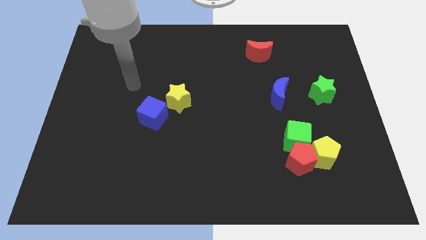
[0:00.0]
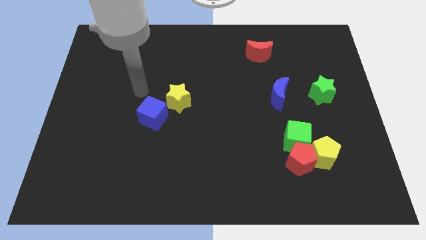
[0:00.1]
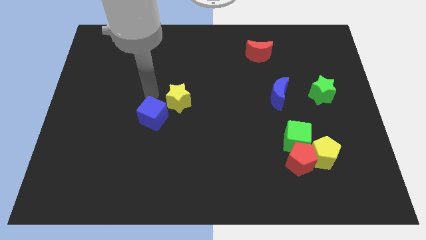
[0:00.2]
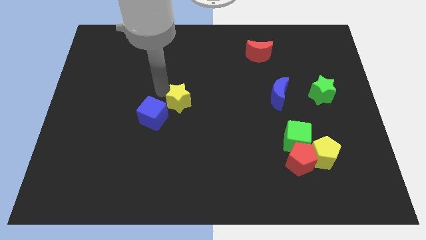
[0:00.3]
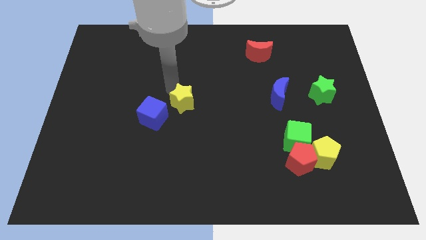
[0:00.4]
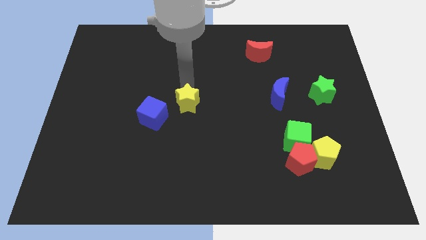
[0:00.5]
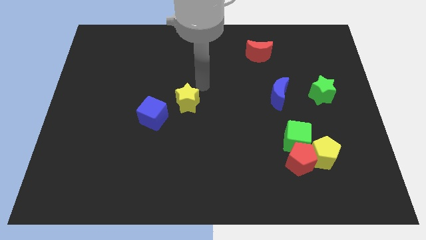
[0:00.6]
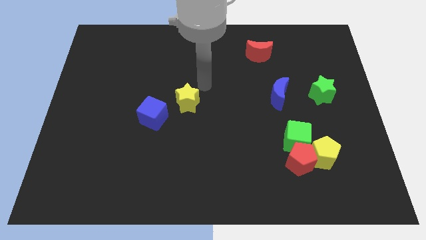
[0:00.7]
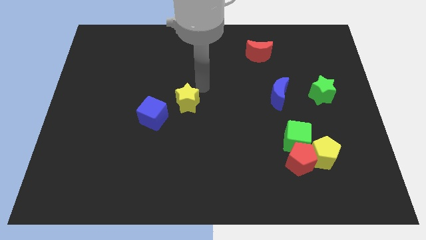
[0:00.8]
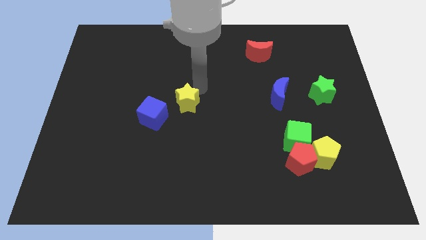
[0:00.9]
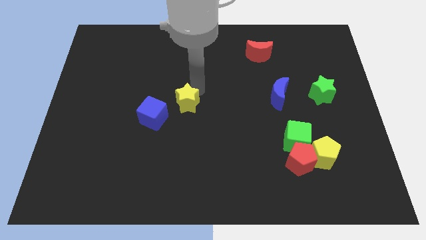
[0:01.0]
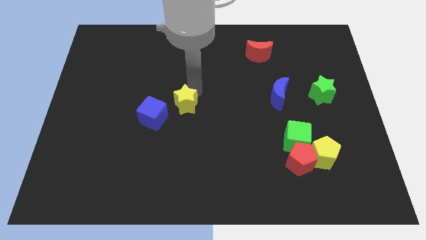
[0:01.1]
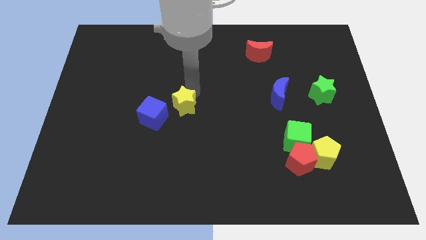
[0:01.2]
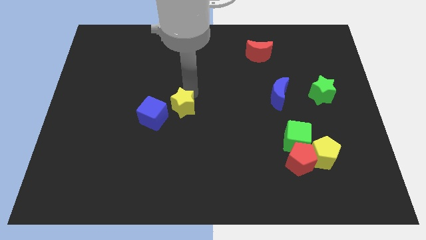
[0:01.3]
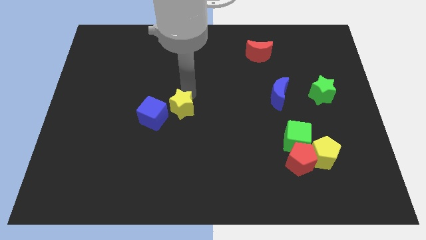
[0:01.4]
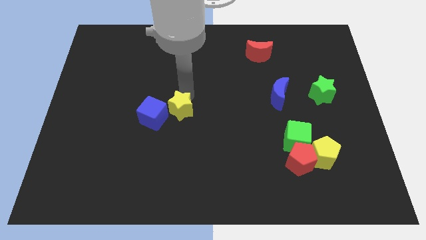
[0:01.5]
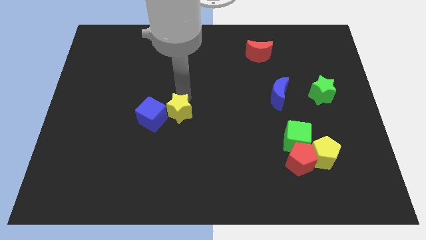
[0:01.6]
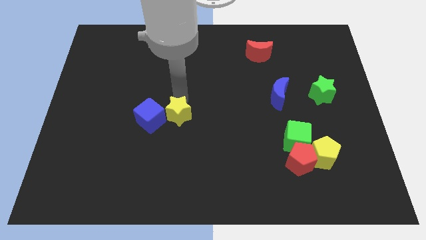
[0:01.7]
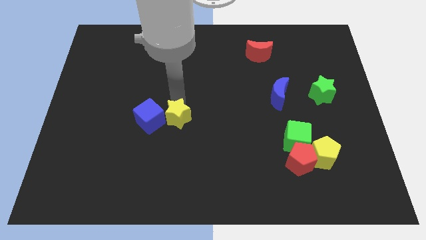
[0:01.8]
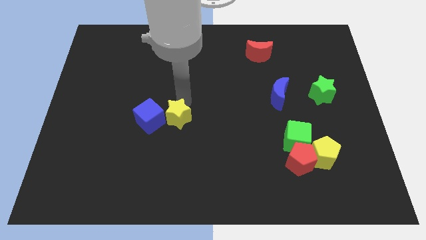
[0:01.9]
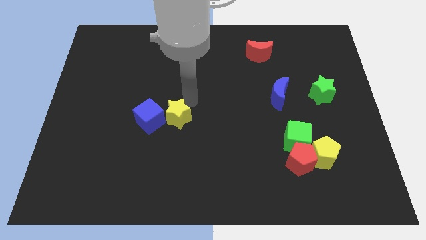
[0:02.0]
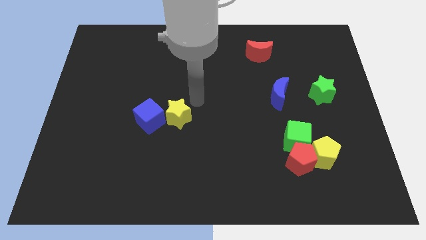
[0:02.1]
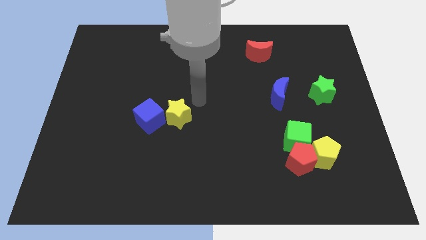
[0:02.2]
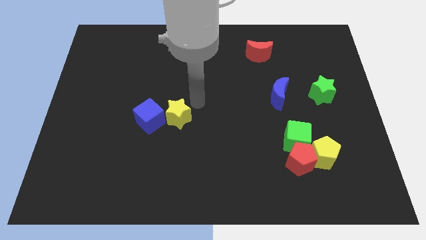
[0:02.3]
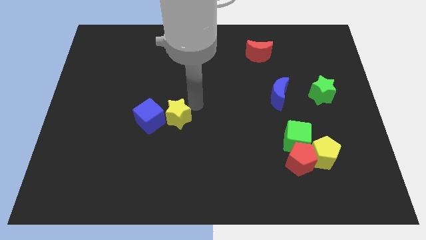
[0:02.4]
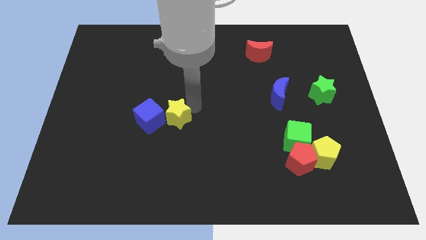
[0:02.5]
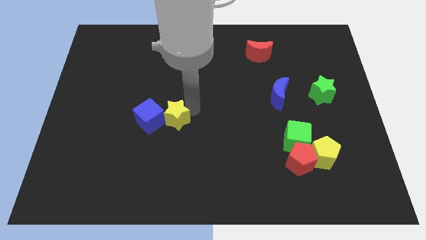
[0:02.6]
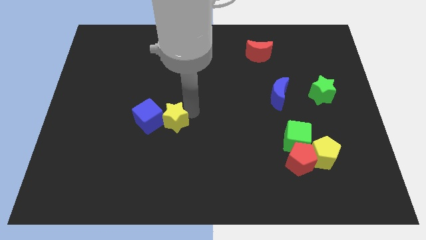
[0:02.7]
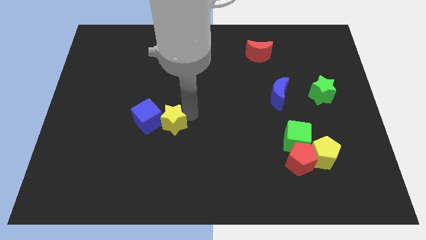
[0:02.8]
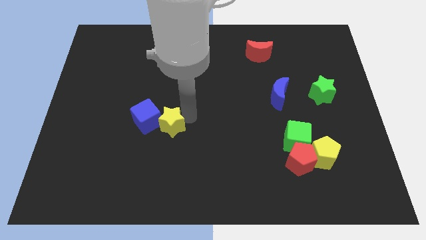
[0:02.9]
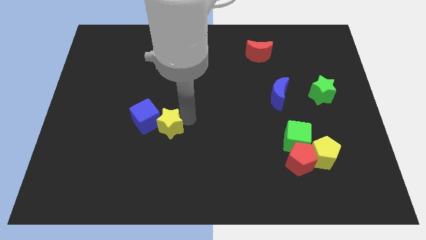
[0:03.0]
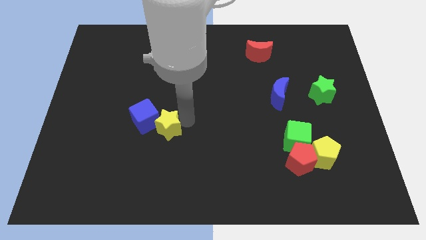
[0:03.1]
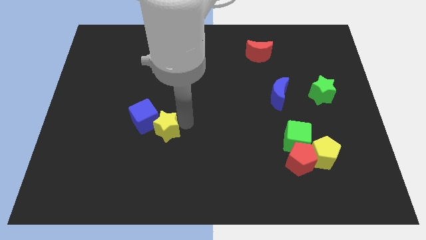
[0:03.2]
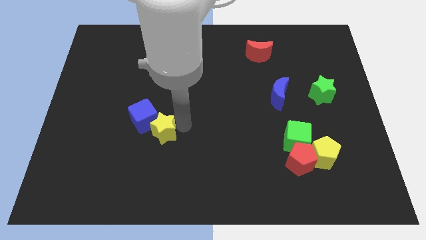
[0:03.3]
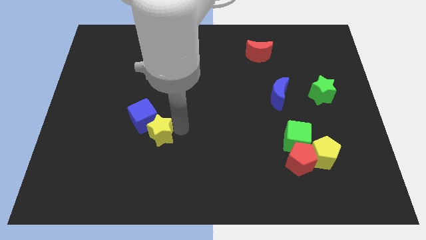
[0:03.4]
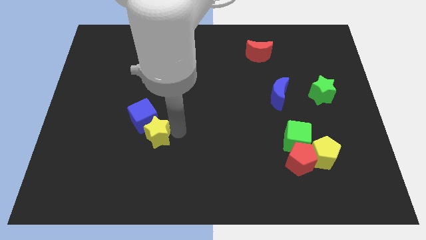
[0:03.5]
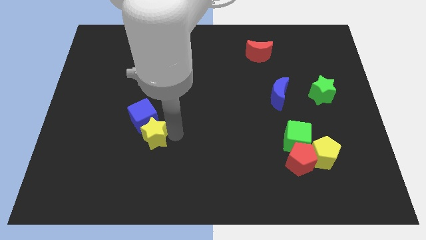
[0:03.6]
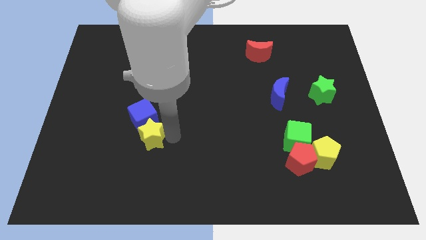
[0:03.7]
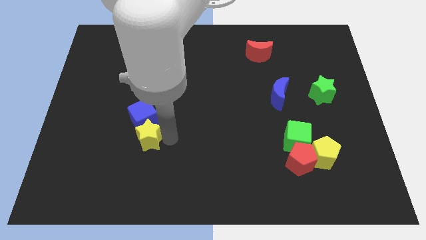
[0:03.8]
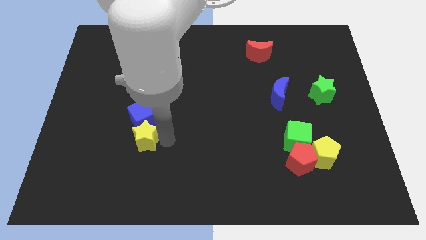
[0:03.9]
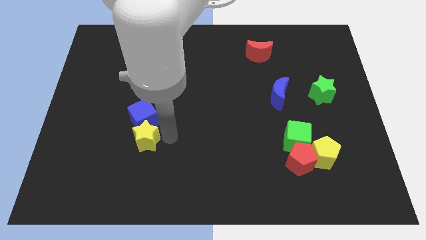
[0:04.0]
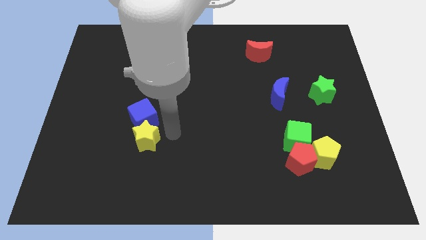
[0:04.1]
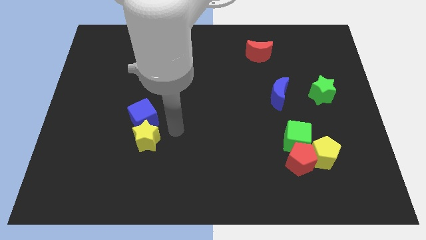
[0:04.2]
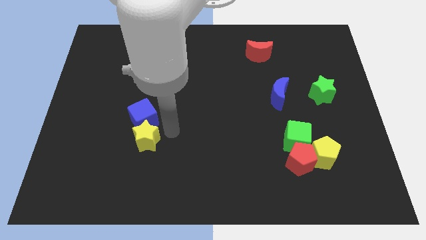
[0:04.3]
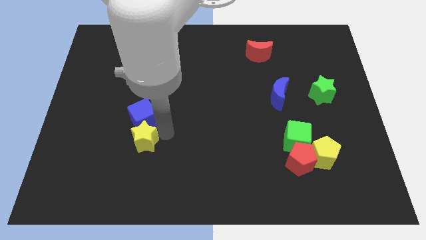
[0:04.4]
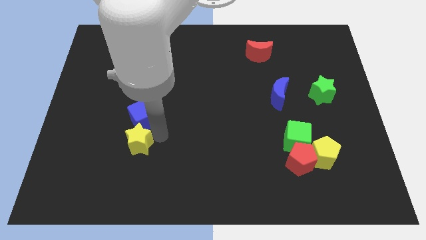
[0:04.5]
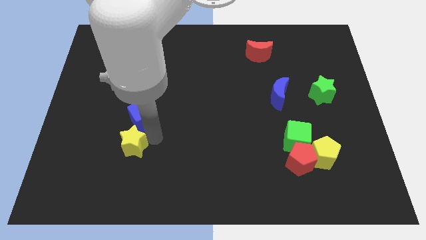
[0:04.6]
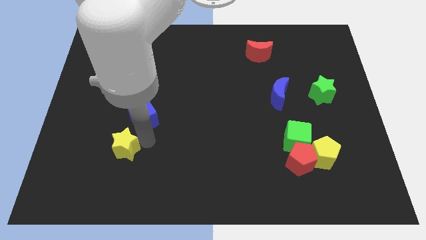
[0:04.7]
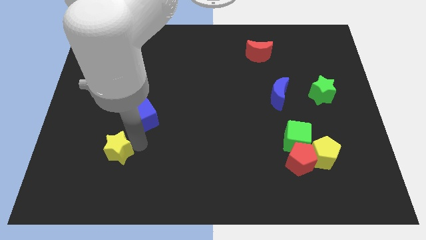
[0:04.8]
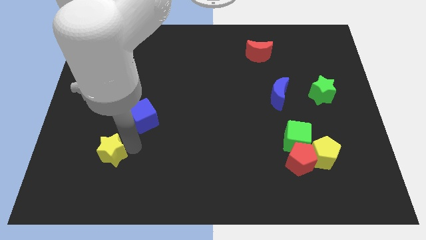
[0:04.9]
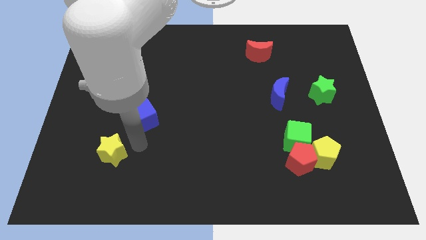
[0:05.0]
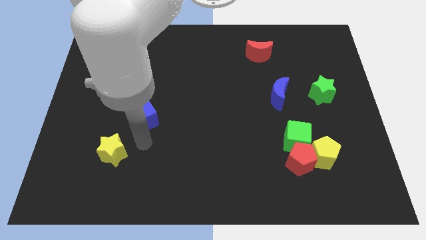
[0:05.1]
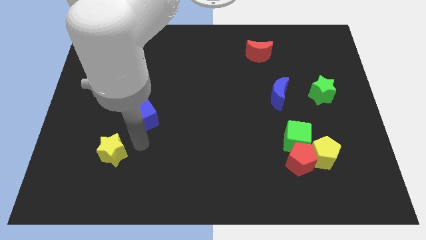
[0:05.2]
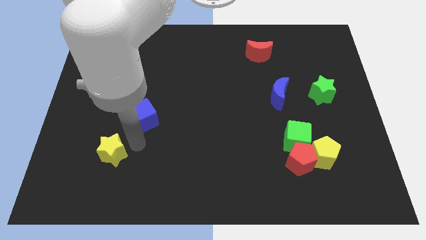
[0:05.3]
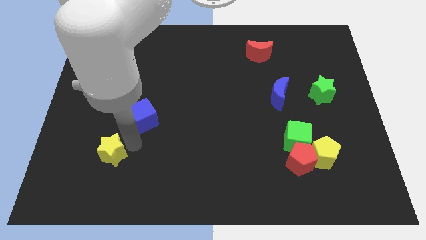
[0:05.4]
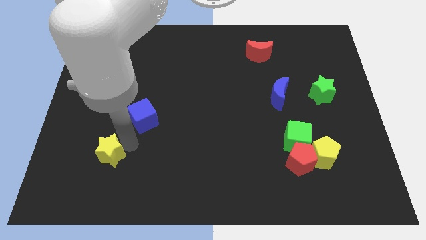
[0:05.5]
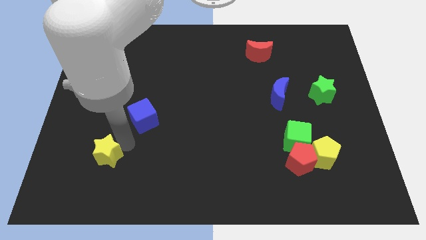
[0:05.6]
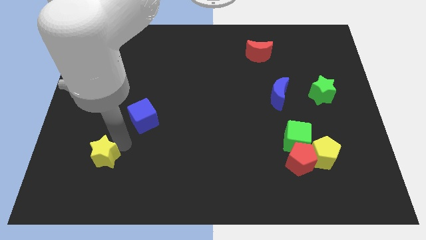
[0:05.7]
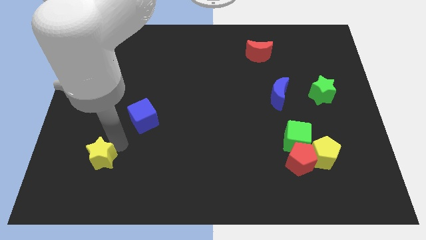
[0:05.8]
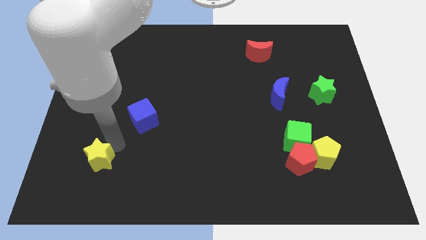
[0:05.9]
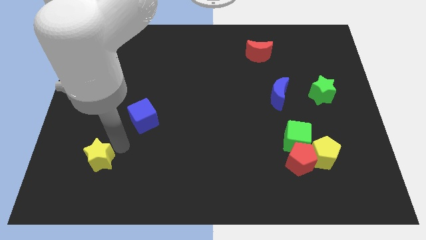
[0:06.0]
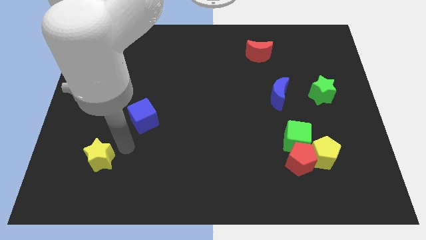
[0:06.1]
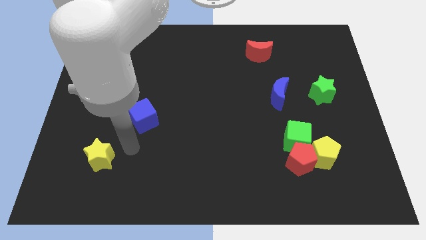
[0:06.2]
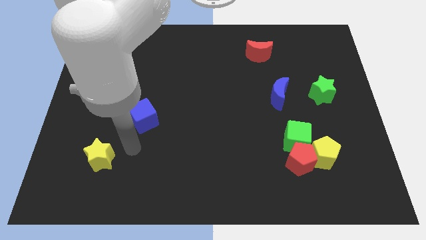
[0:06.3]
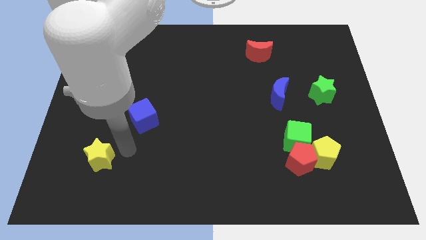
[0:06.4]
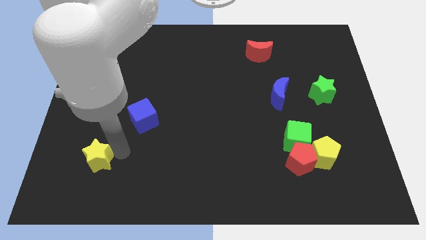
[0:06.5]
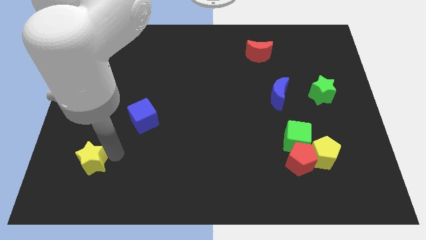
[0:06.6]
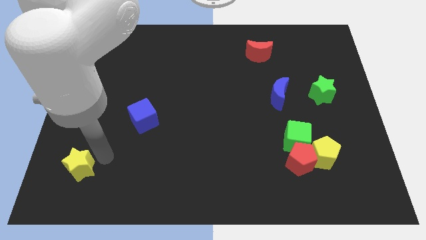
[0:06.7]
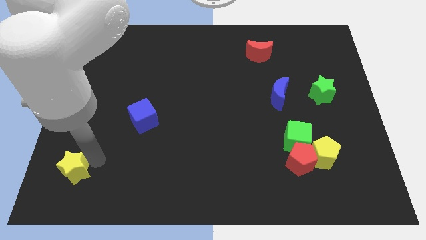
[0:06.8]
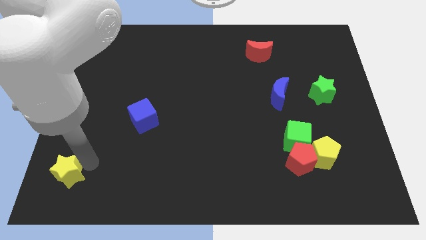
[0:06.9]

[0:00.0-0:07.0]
slide the yellow star to the lower left corner
